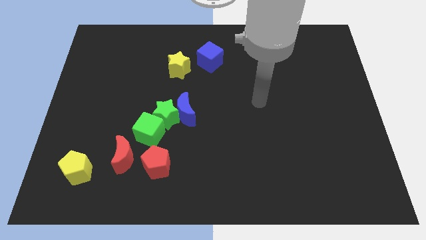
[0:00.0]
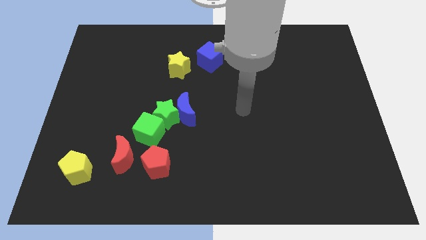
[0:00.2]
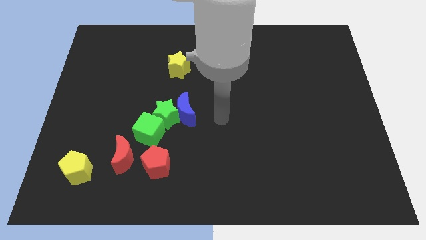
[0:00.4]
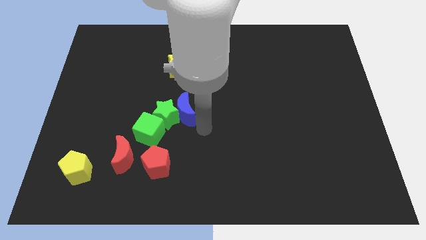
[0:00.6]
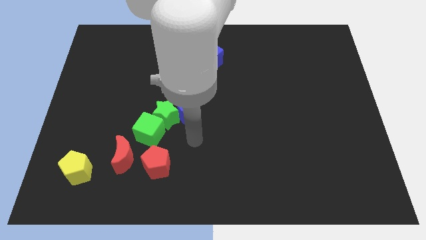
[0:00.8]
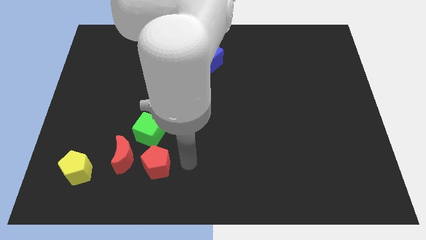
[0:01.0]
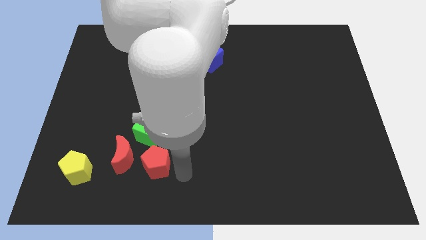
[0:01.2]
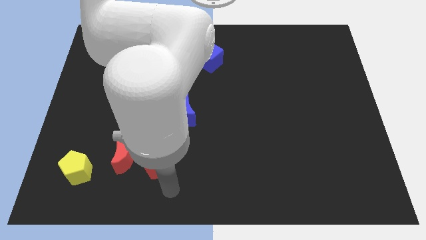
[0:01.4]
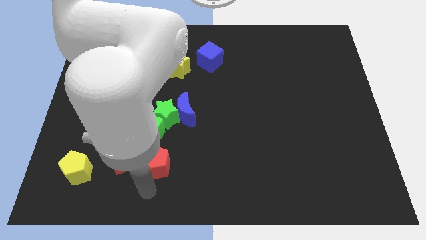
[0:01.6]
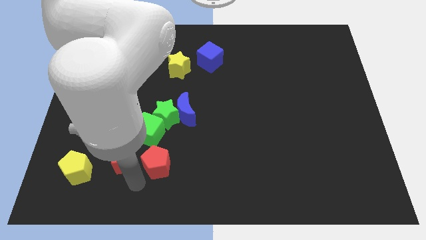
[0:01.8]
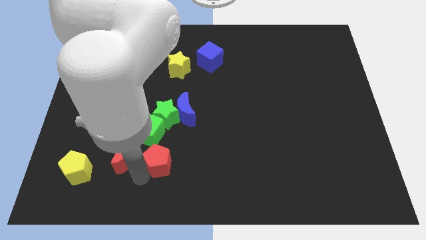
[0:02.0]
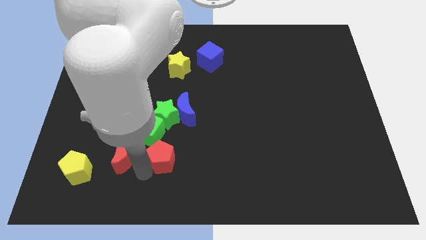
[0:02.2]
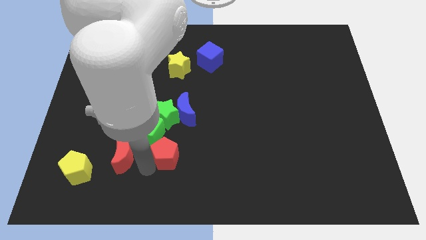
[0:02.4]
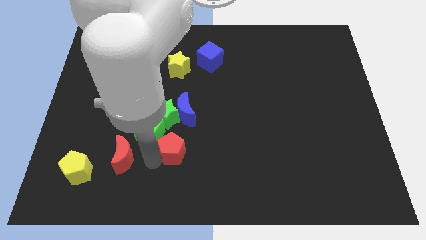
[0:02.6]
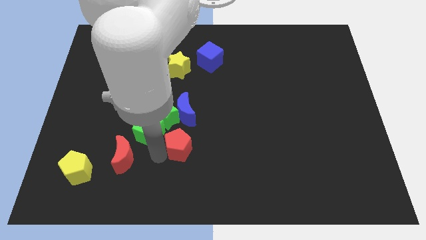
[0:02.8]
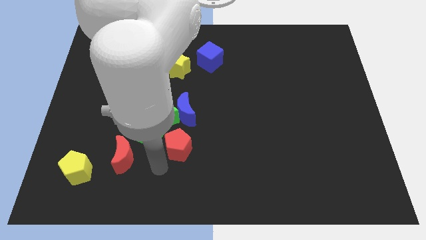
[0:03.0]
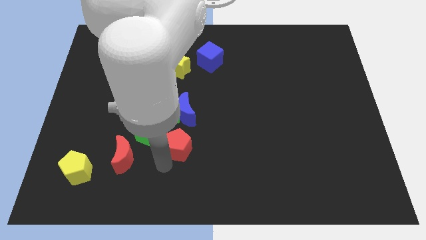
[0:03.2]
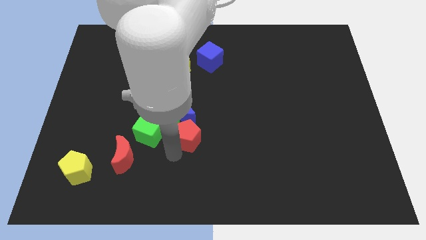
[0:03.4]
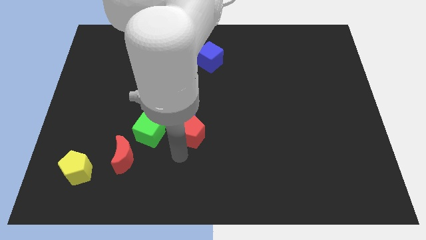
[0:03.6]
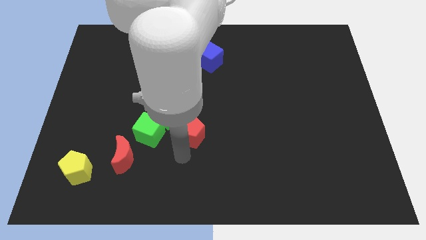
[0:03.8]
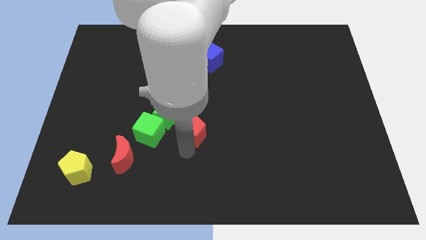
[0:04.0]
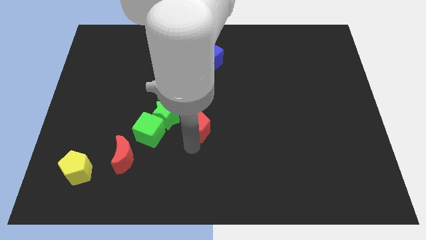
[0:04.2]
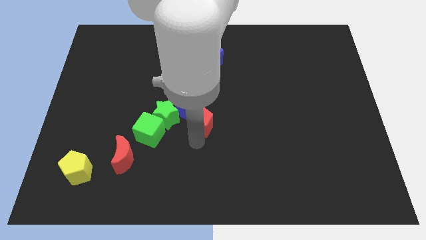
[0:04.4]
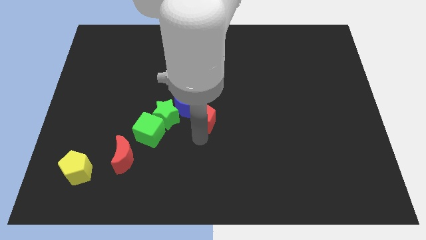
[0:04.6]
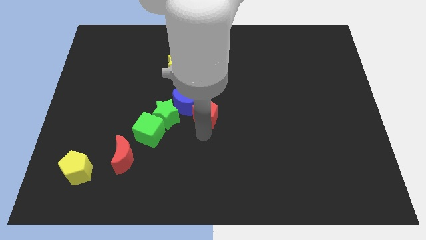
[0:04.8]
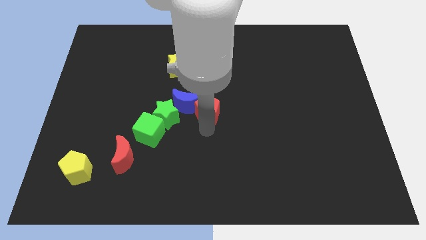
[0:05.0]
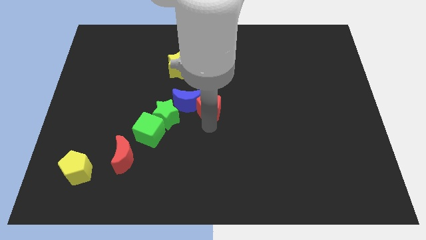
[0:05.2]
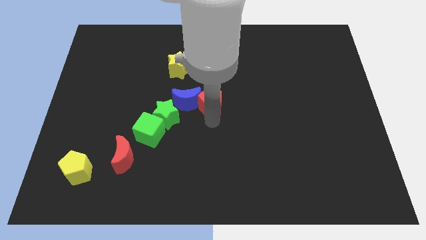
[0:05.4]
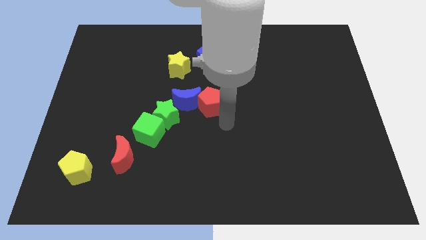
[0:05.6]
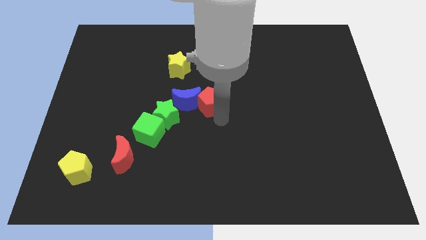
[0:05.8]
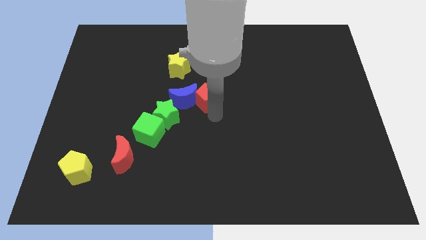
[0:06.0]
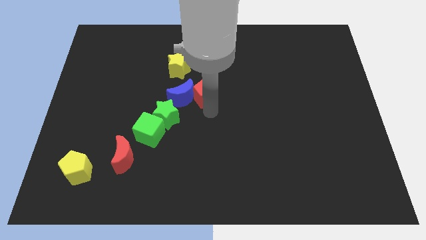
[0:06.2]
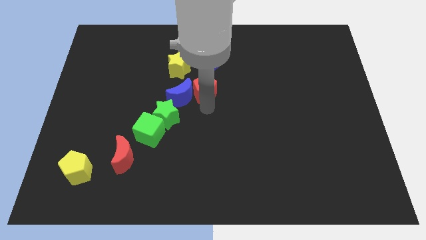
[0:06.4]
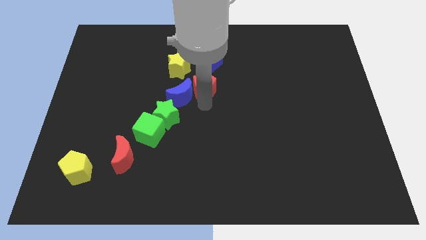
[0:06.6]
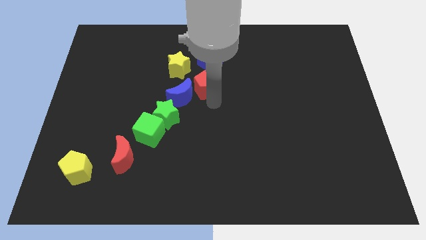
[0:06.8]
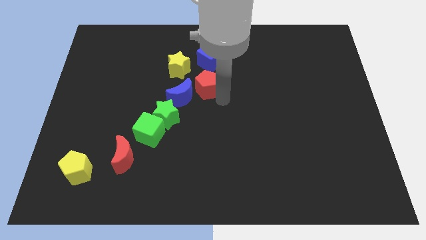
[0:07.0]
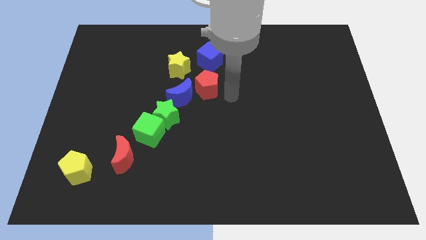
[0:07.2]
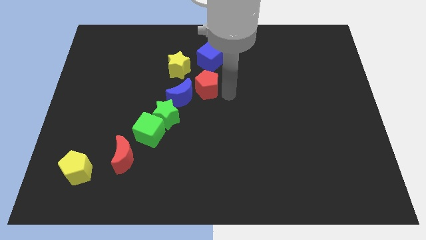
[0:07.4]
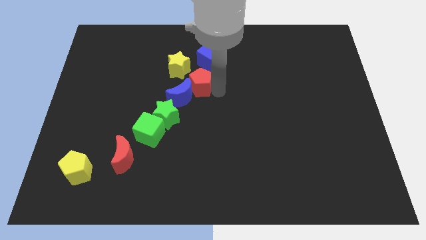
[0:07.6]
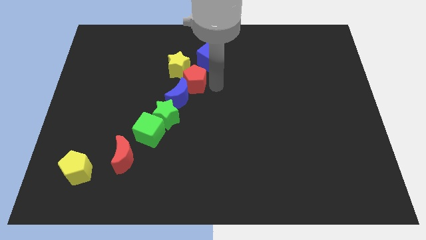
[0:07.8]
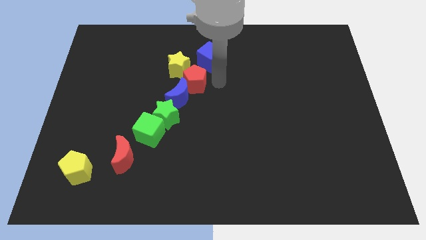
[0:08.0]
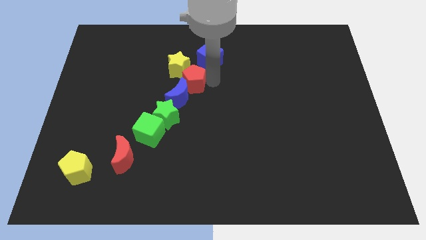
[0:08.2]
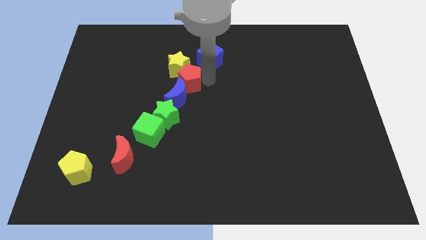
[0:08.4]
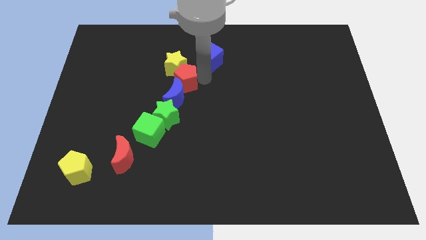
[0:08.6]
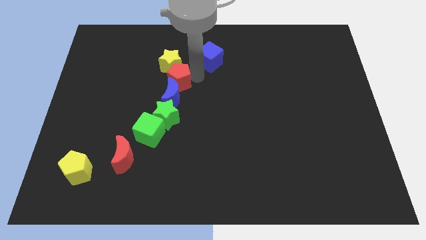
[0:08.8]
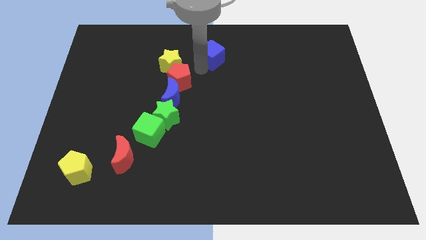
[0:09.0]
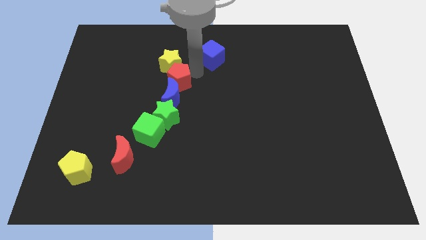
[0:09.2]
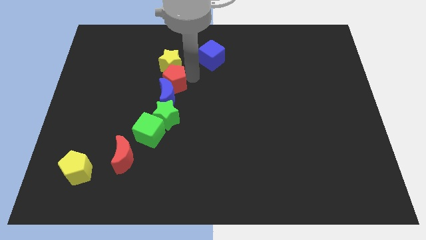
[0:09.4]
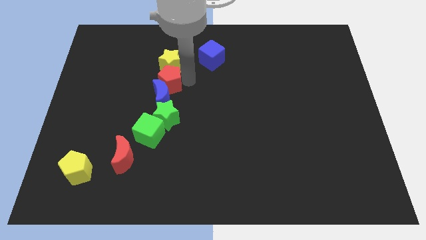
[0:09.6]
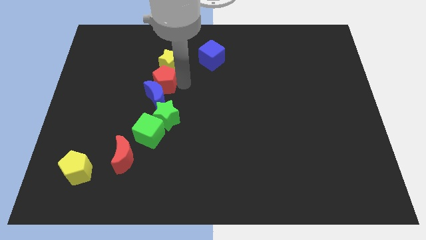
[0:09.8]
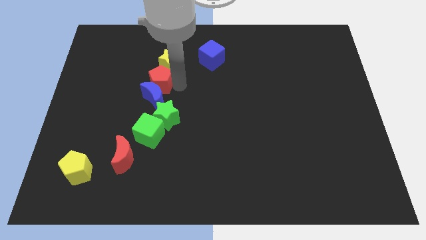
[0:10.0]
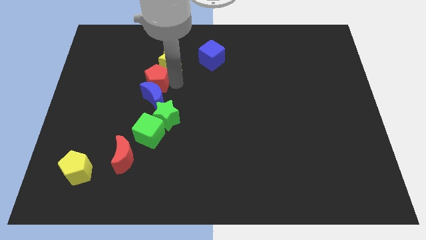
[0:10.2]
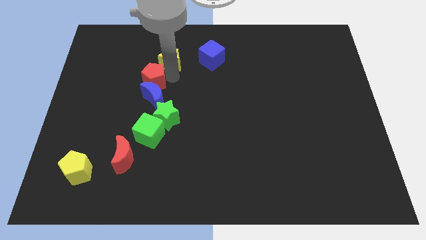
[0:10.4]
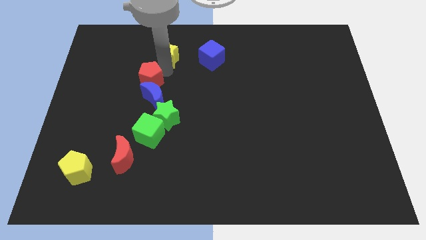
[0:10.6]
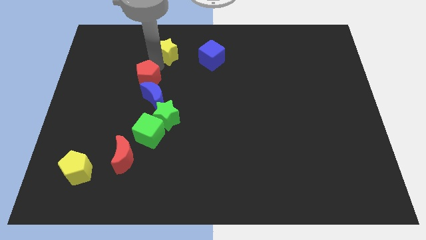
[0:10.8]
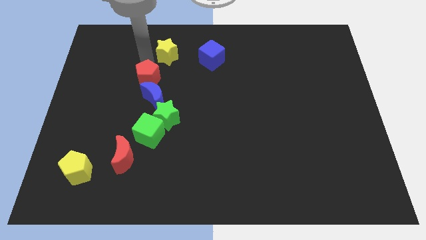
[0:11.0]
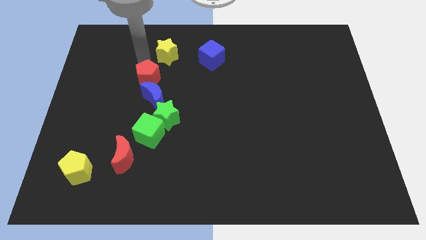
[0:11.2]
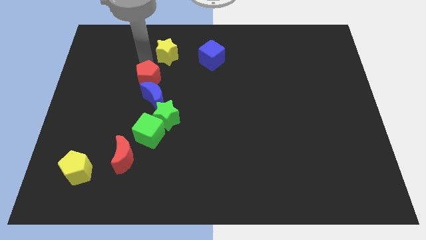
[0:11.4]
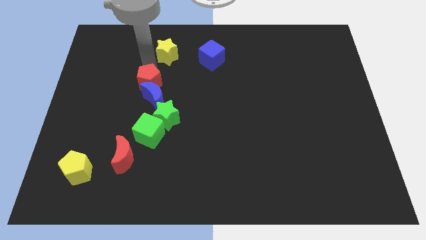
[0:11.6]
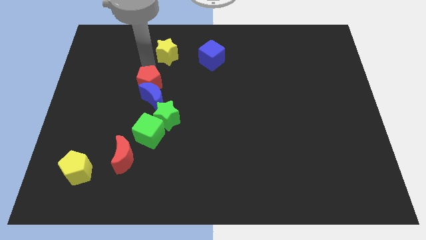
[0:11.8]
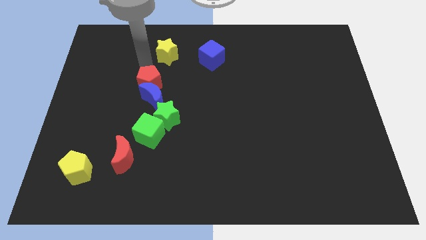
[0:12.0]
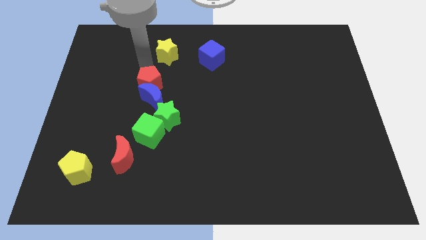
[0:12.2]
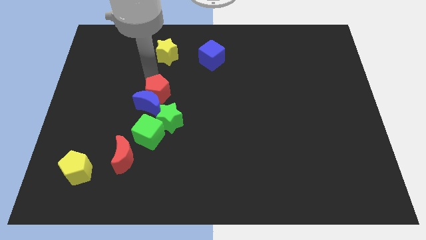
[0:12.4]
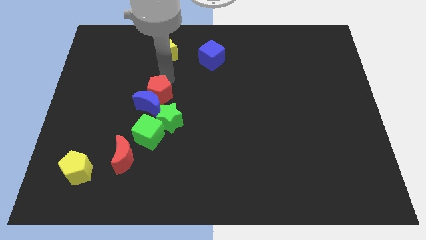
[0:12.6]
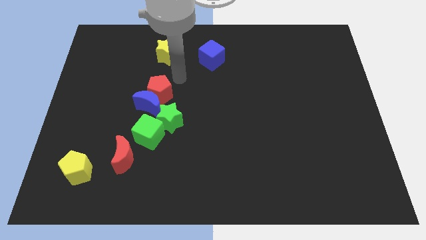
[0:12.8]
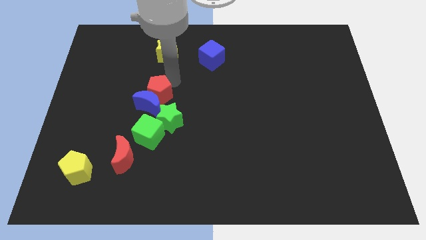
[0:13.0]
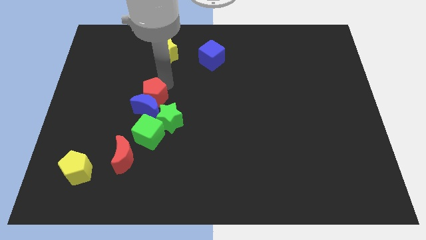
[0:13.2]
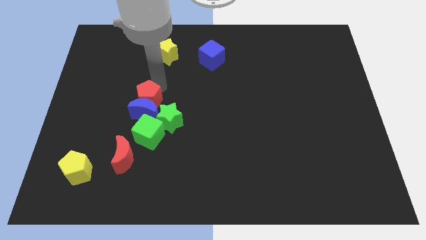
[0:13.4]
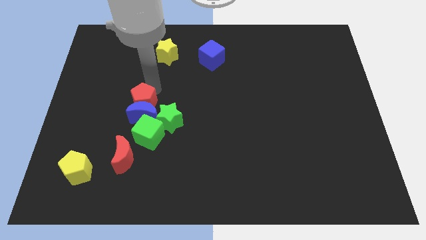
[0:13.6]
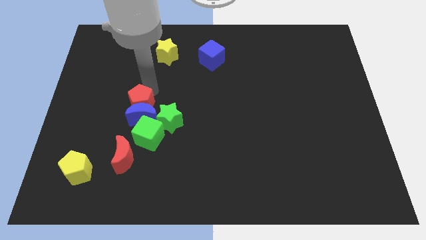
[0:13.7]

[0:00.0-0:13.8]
push the red pentagon to the top left of the green cube
